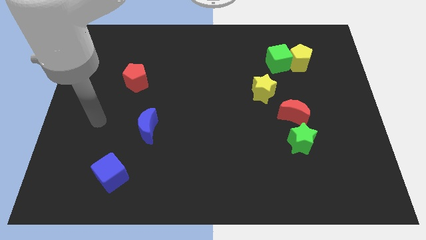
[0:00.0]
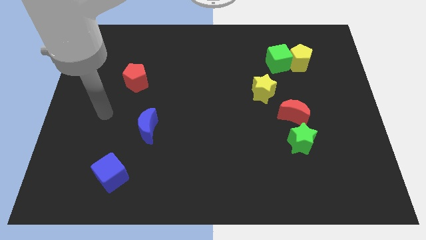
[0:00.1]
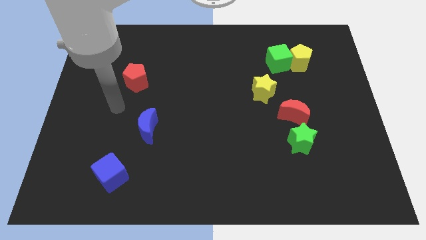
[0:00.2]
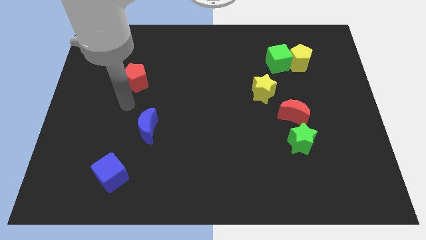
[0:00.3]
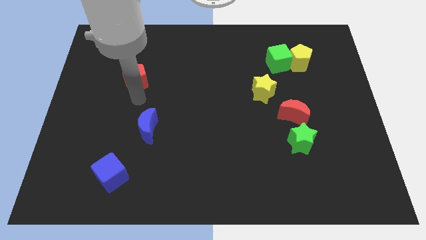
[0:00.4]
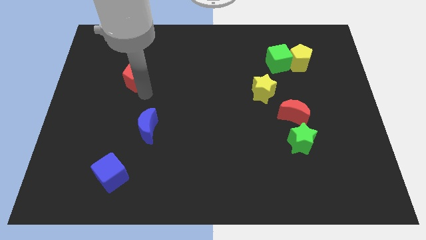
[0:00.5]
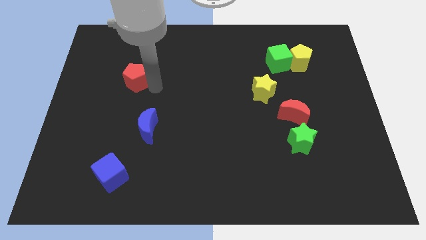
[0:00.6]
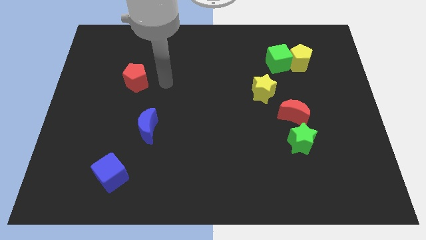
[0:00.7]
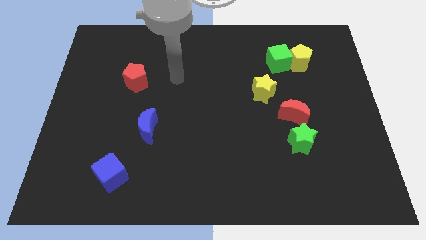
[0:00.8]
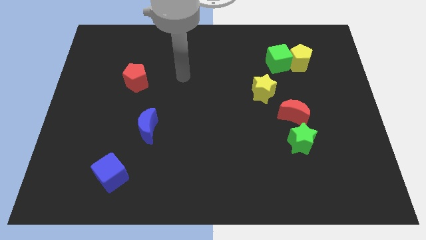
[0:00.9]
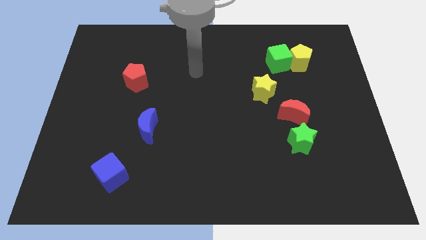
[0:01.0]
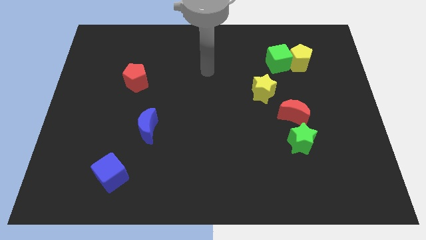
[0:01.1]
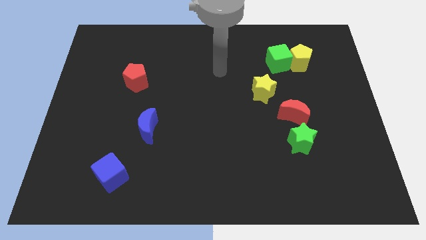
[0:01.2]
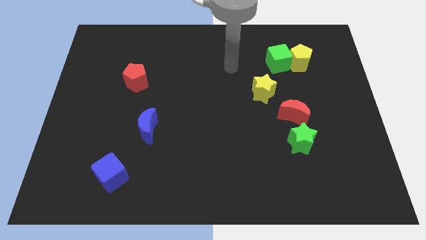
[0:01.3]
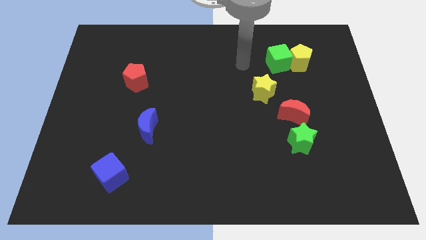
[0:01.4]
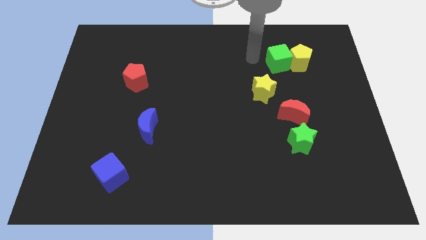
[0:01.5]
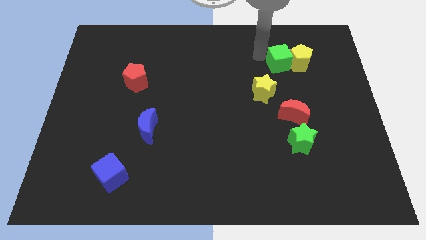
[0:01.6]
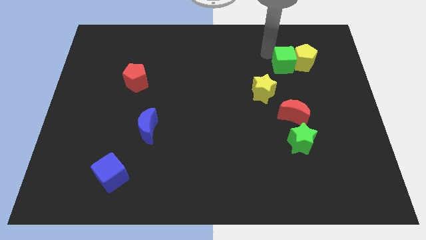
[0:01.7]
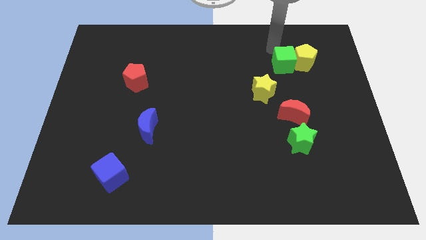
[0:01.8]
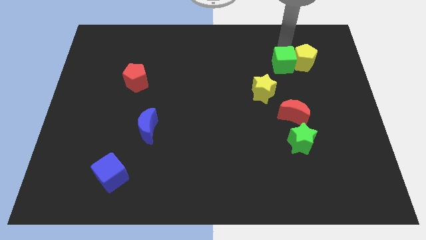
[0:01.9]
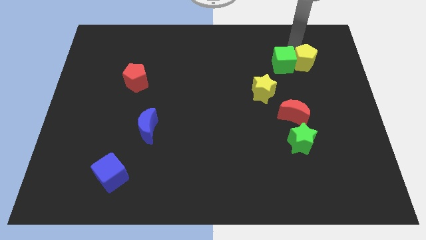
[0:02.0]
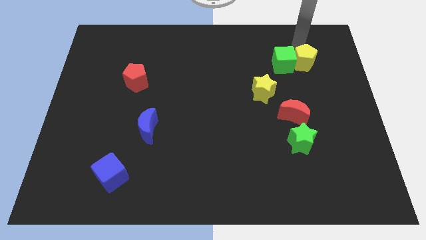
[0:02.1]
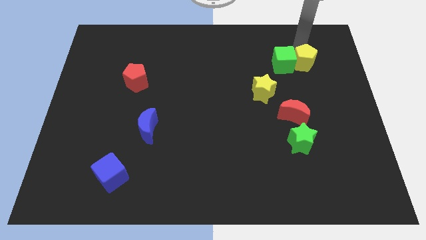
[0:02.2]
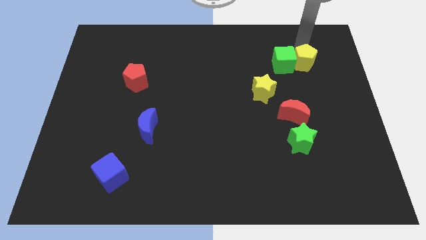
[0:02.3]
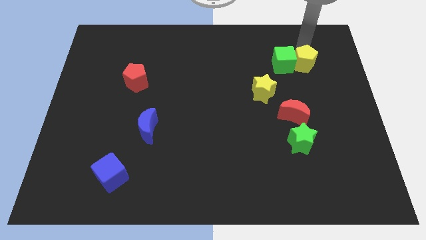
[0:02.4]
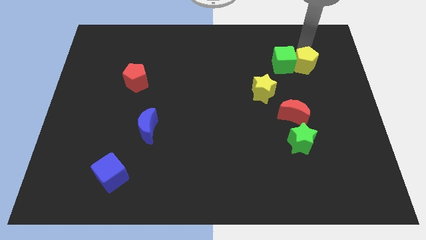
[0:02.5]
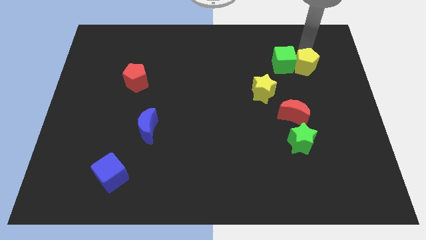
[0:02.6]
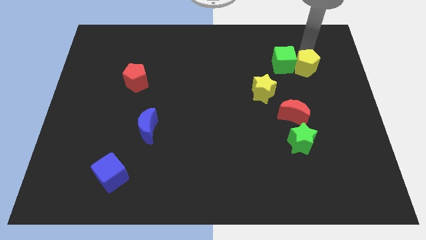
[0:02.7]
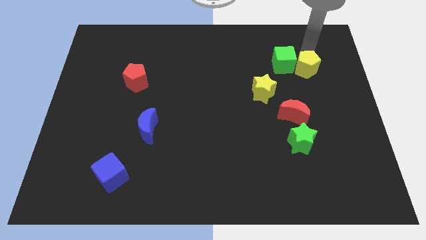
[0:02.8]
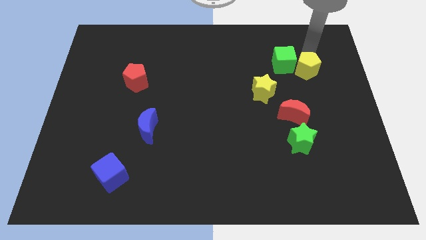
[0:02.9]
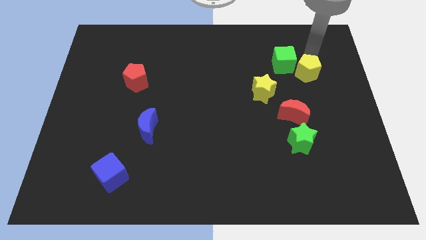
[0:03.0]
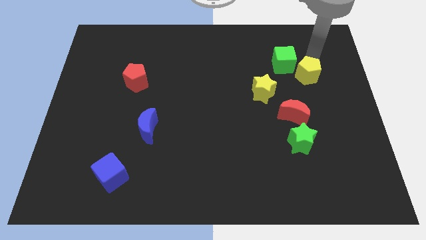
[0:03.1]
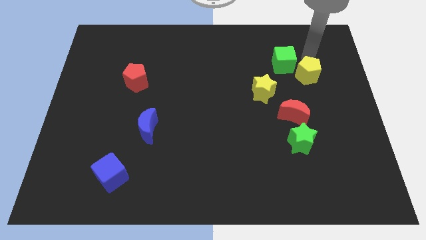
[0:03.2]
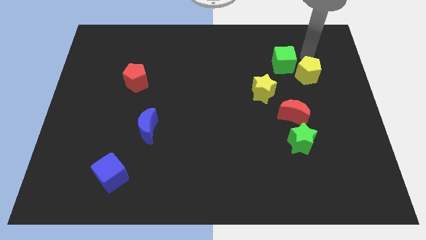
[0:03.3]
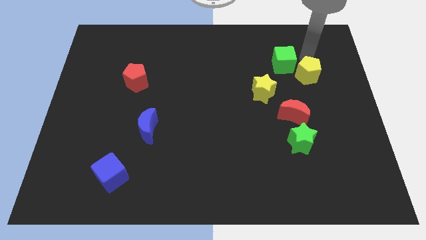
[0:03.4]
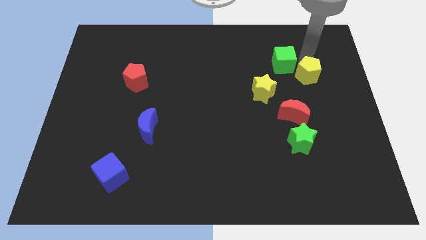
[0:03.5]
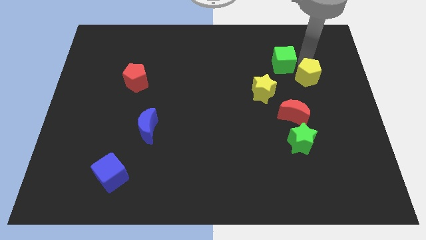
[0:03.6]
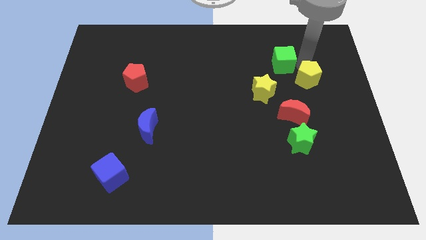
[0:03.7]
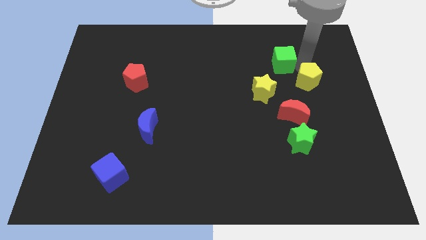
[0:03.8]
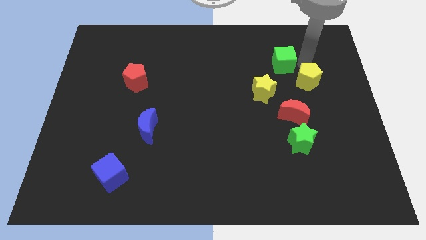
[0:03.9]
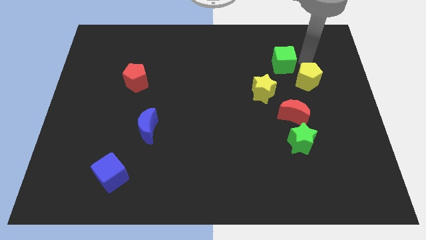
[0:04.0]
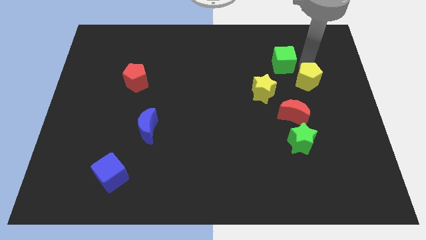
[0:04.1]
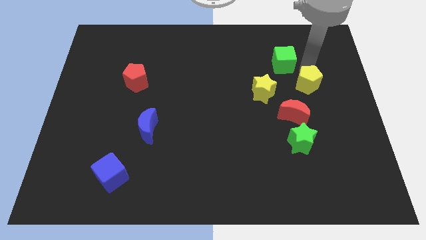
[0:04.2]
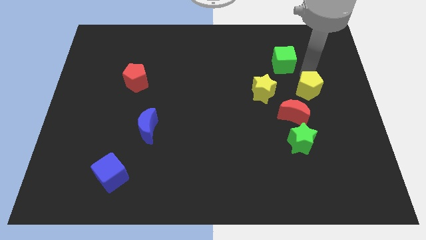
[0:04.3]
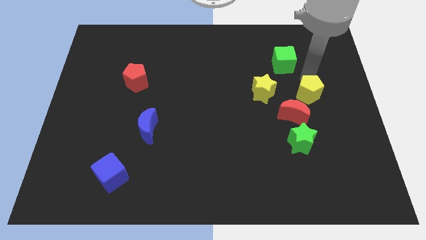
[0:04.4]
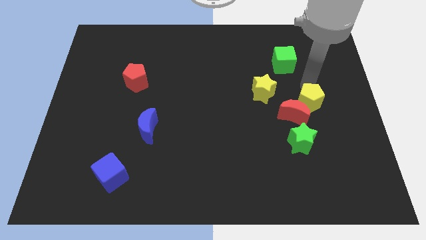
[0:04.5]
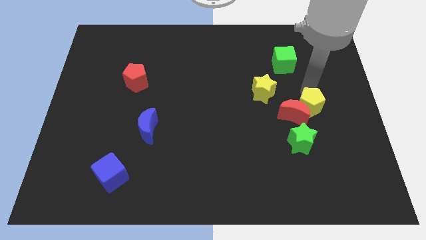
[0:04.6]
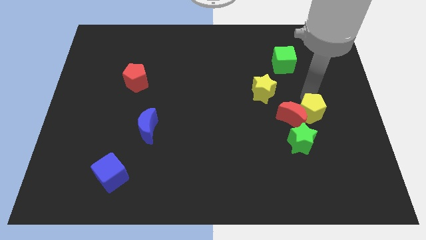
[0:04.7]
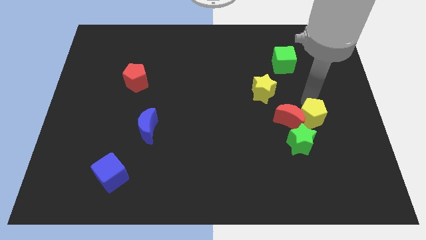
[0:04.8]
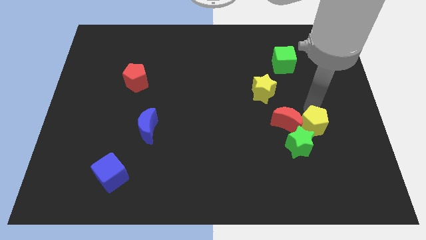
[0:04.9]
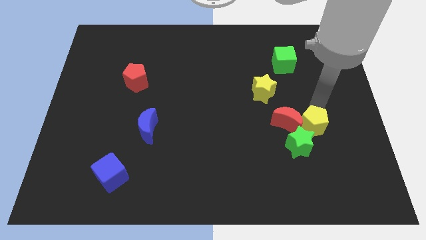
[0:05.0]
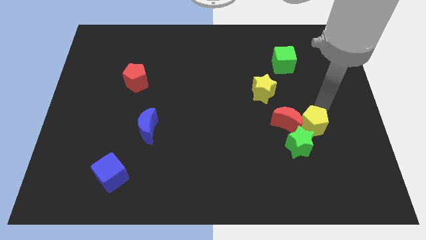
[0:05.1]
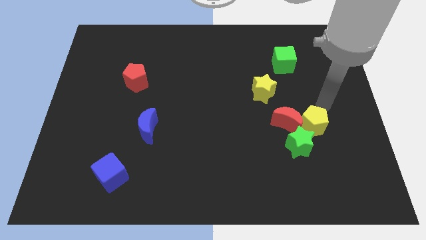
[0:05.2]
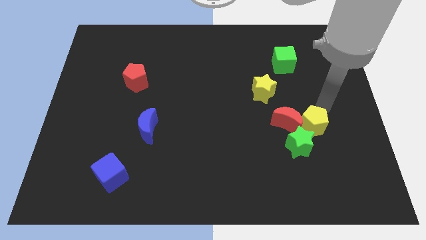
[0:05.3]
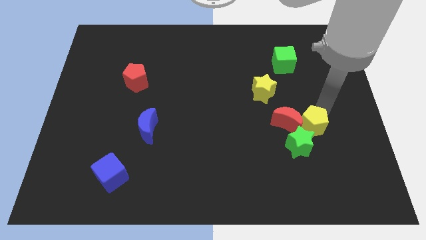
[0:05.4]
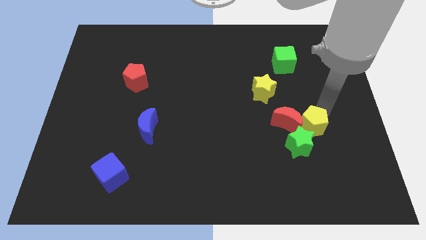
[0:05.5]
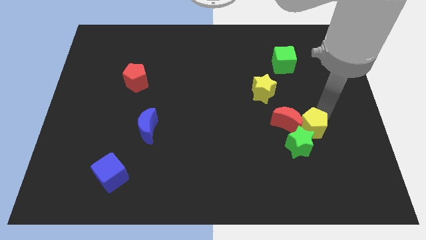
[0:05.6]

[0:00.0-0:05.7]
push the yellow pentagon towards the green star

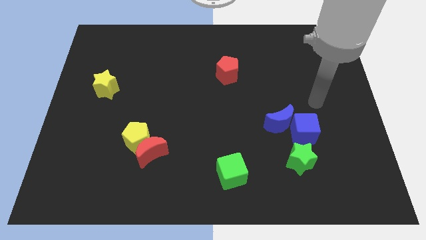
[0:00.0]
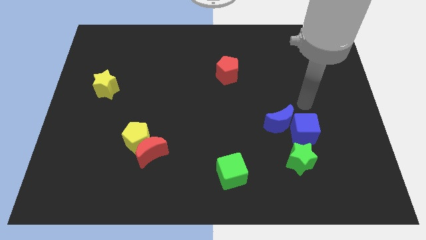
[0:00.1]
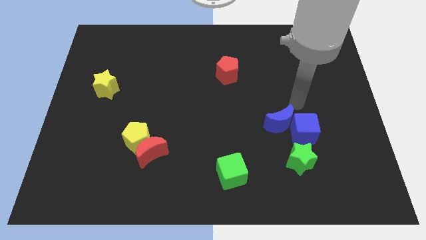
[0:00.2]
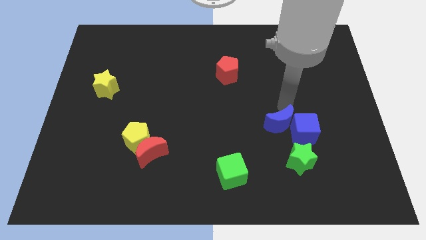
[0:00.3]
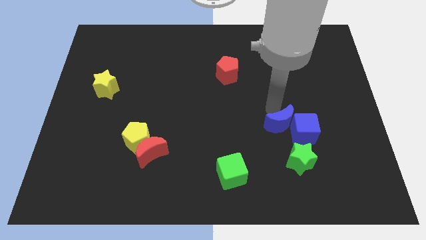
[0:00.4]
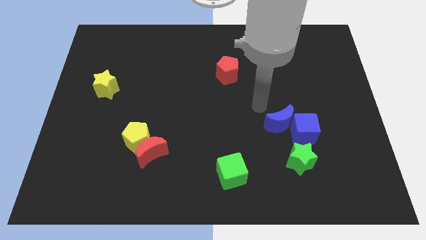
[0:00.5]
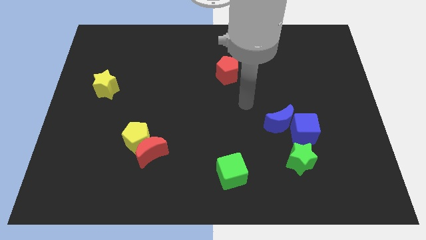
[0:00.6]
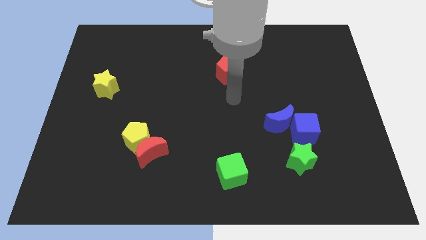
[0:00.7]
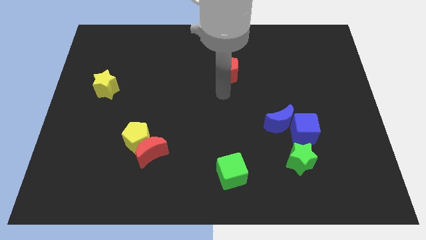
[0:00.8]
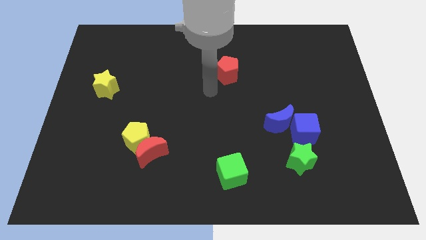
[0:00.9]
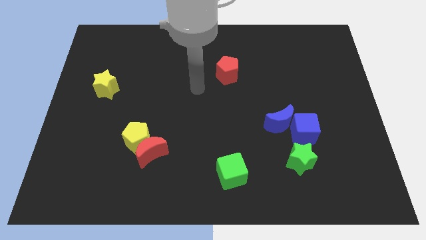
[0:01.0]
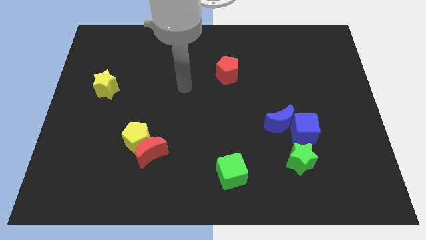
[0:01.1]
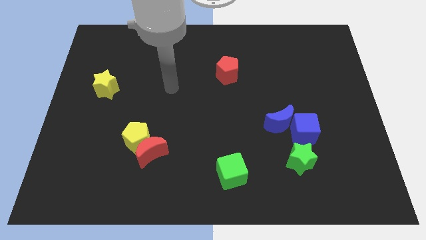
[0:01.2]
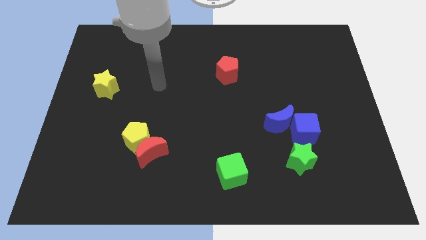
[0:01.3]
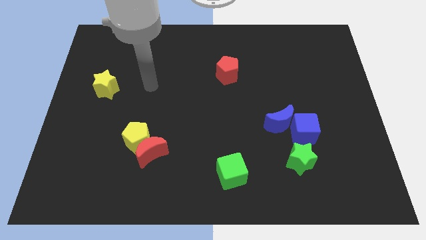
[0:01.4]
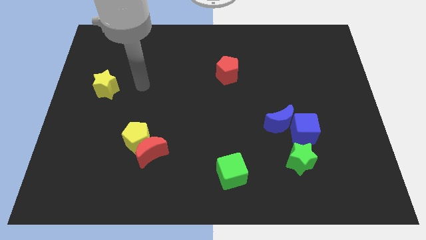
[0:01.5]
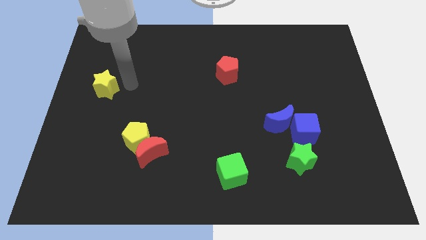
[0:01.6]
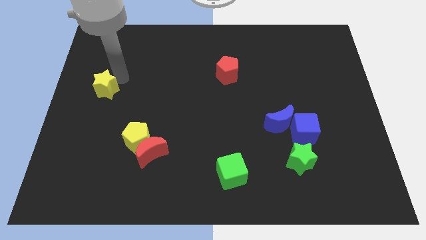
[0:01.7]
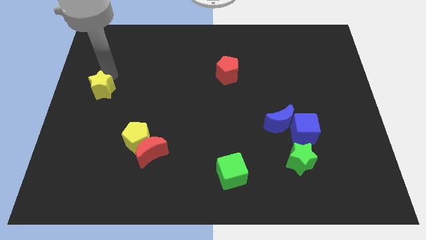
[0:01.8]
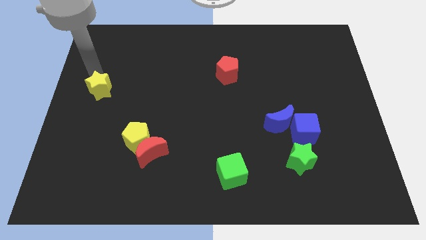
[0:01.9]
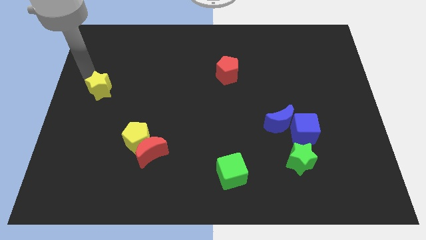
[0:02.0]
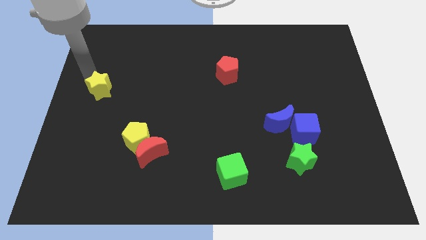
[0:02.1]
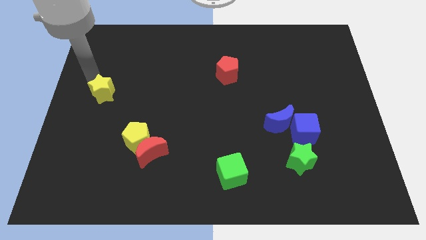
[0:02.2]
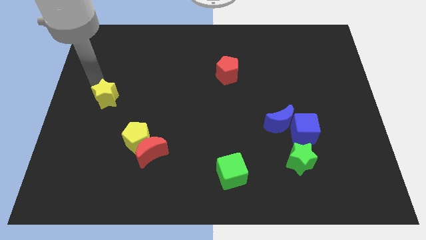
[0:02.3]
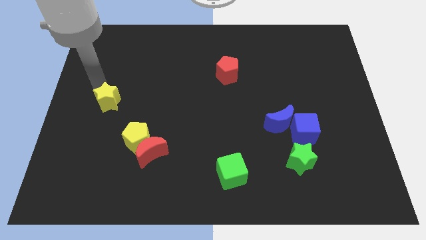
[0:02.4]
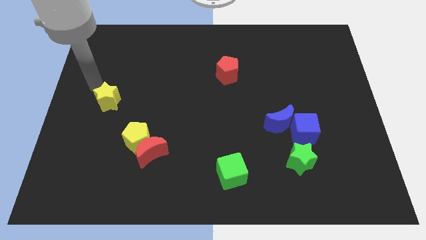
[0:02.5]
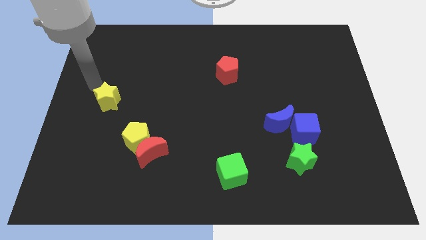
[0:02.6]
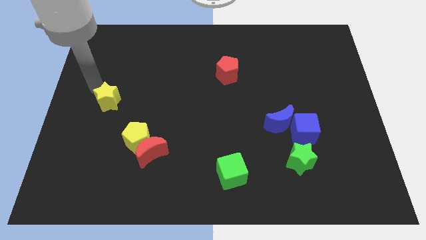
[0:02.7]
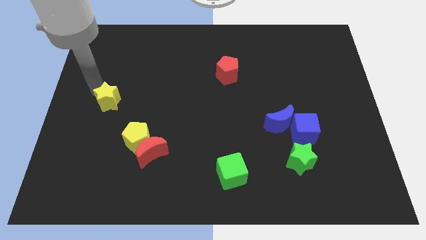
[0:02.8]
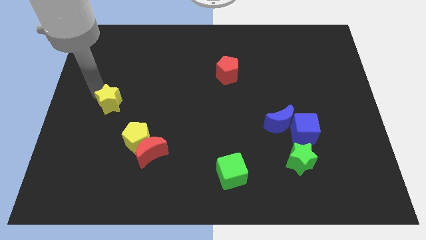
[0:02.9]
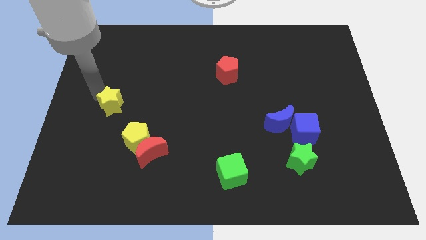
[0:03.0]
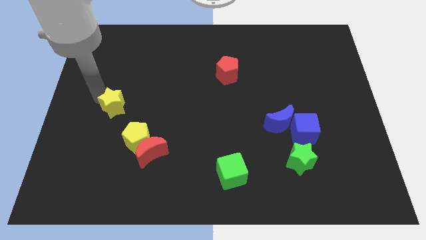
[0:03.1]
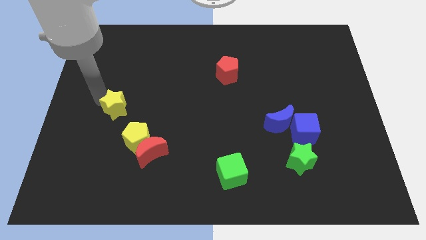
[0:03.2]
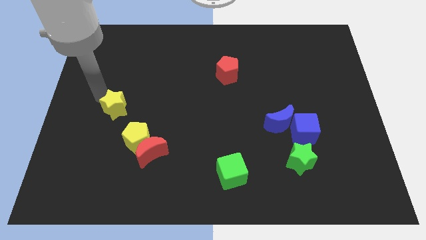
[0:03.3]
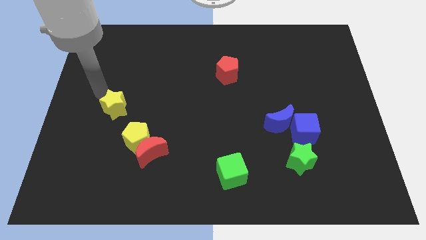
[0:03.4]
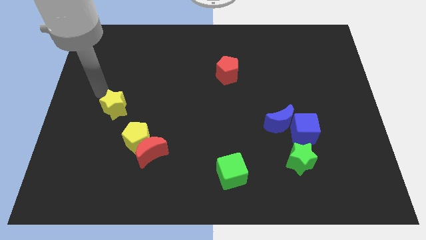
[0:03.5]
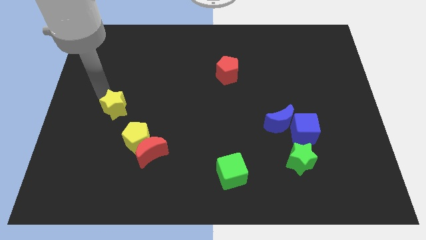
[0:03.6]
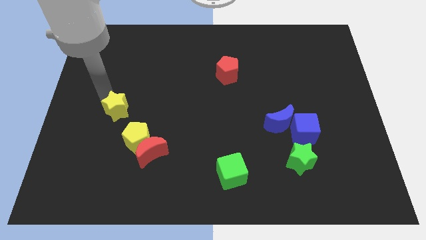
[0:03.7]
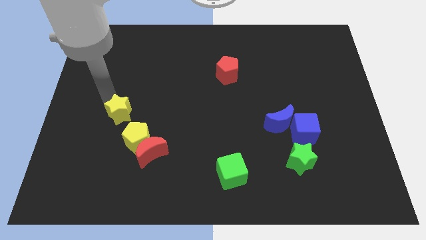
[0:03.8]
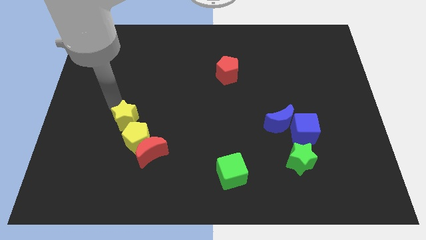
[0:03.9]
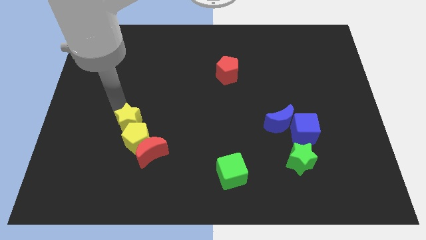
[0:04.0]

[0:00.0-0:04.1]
push the yellow star to the yellow pentagon
